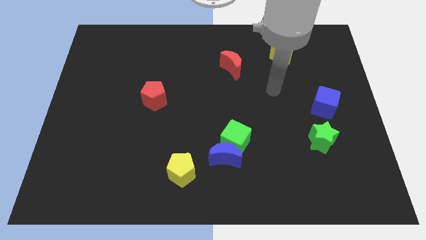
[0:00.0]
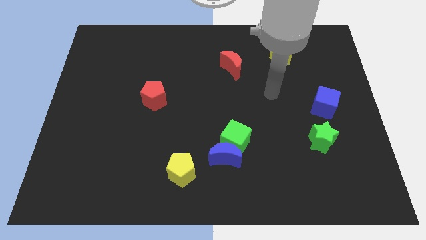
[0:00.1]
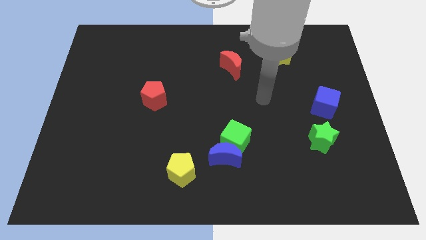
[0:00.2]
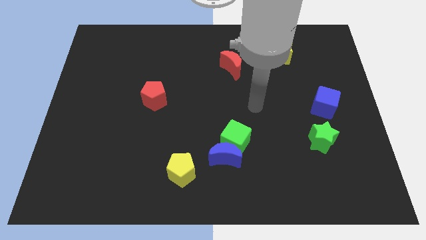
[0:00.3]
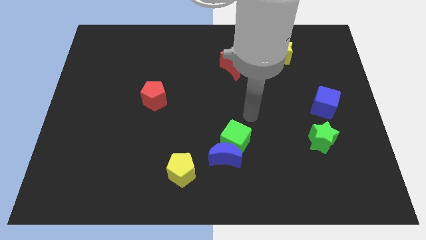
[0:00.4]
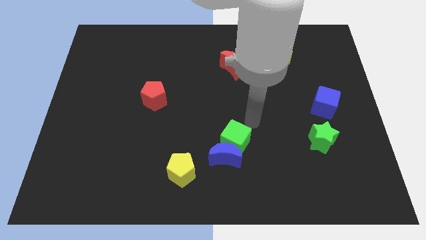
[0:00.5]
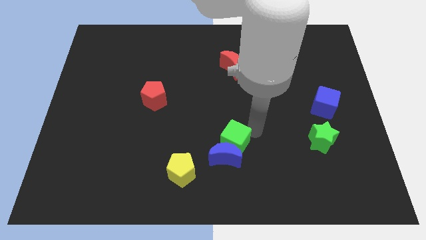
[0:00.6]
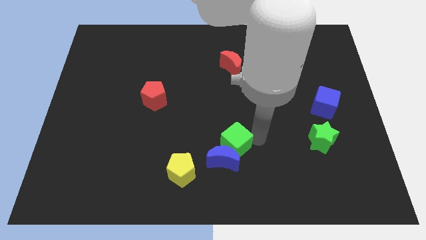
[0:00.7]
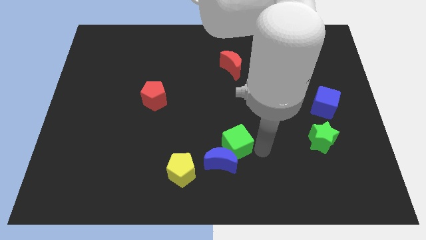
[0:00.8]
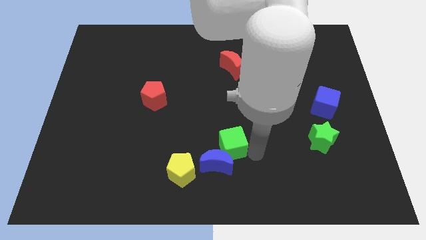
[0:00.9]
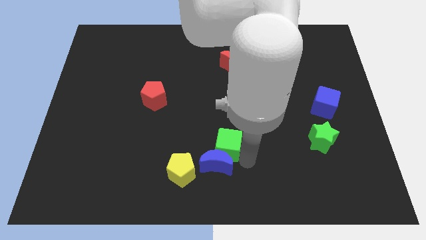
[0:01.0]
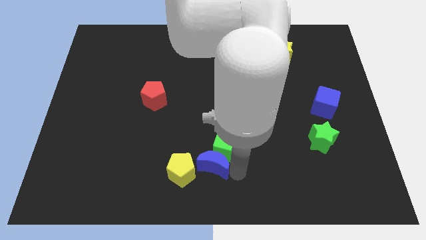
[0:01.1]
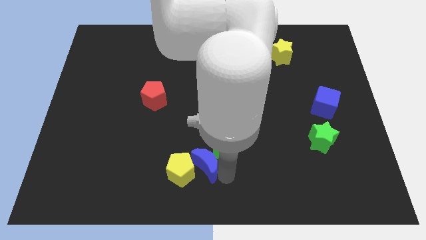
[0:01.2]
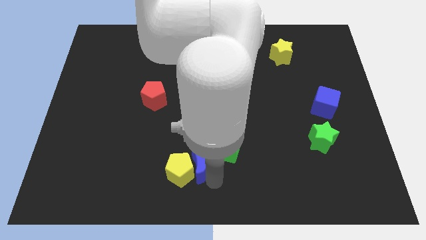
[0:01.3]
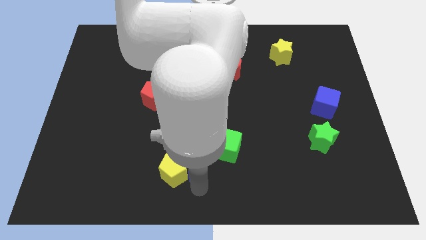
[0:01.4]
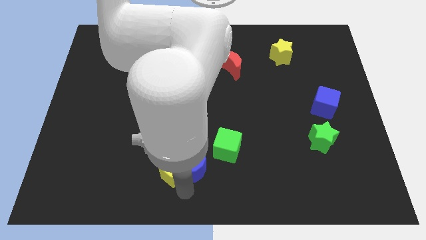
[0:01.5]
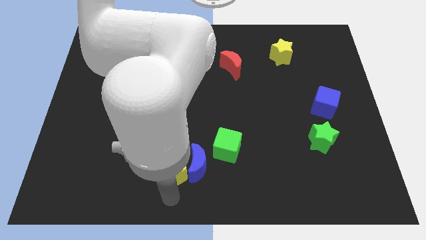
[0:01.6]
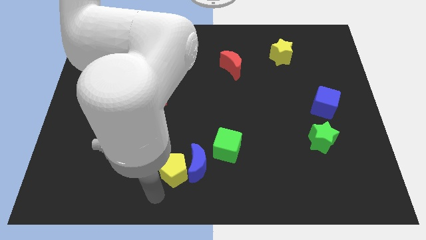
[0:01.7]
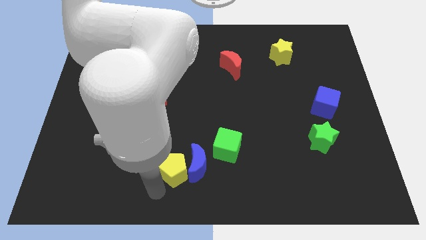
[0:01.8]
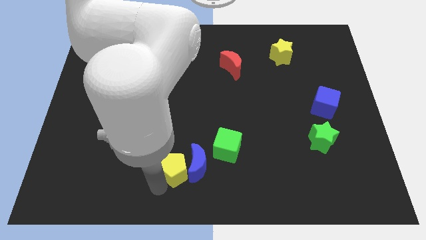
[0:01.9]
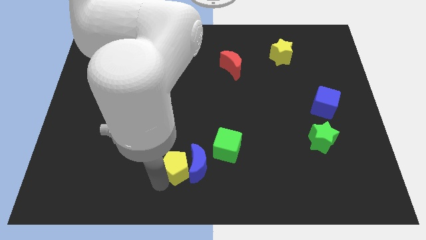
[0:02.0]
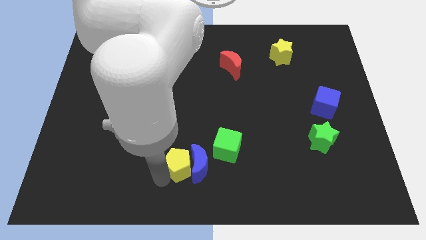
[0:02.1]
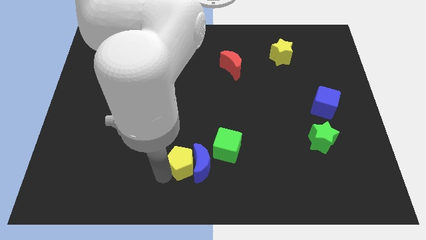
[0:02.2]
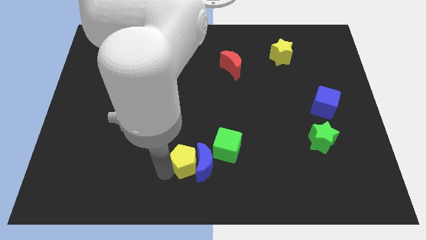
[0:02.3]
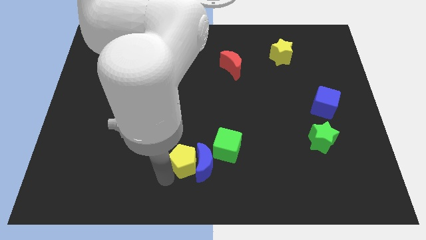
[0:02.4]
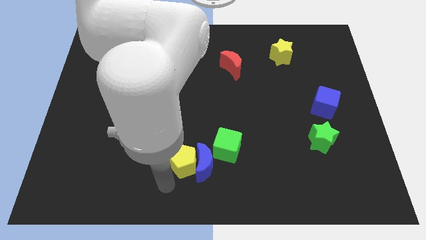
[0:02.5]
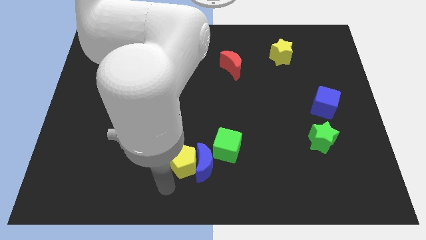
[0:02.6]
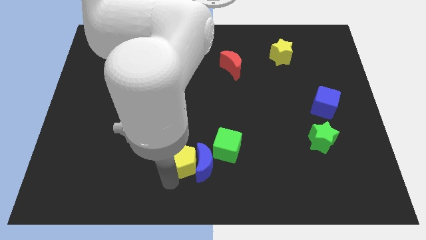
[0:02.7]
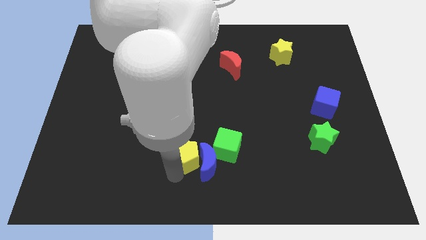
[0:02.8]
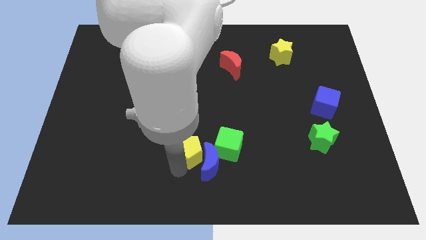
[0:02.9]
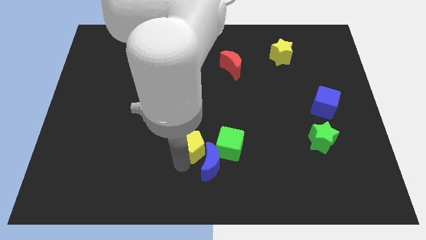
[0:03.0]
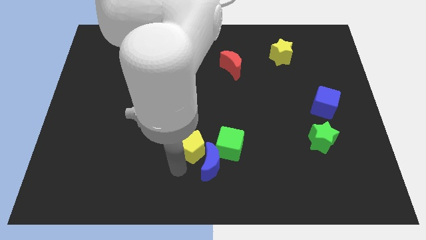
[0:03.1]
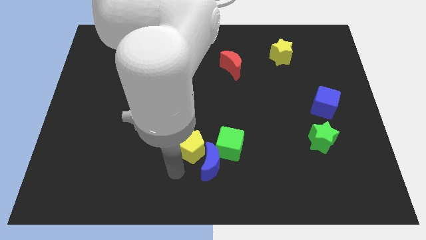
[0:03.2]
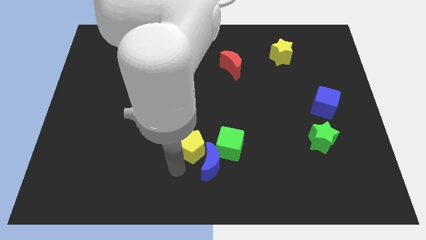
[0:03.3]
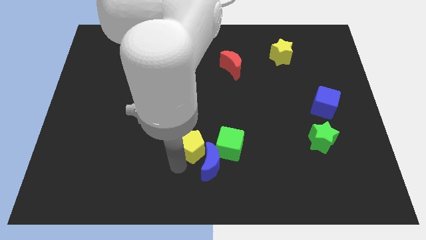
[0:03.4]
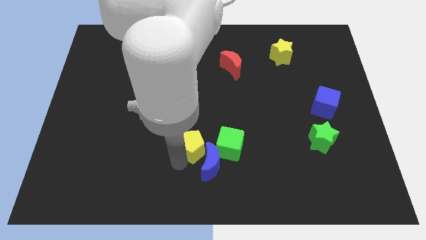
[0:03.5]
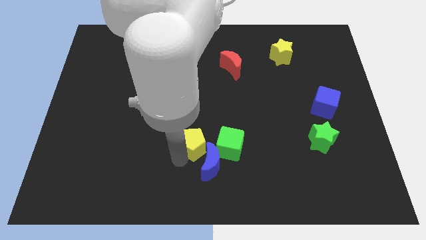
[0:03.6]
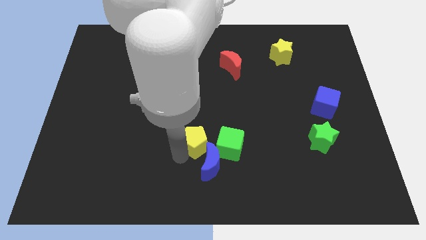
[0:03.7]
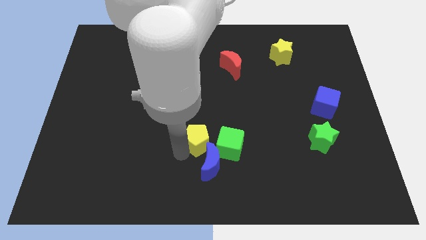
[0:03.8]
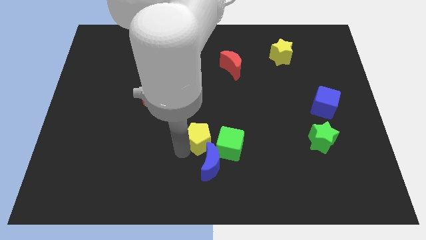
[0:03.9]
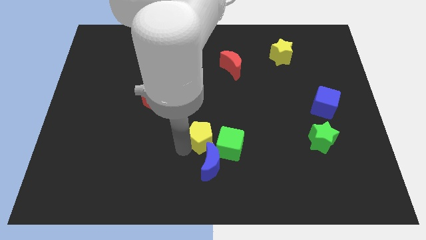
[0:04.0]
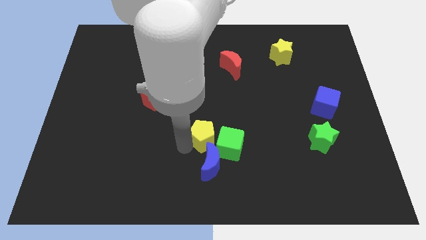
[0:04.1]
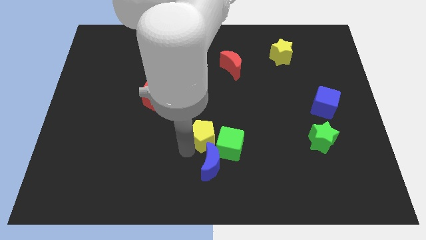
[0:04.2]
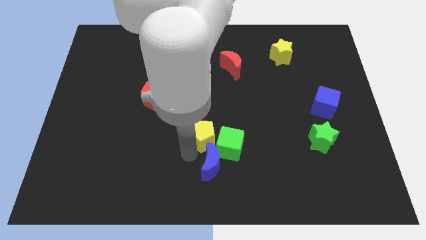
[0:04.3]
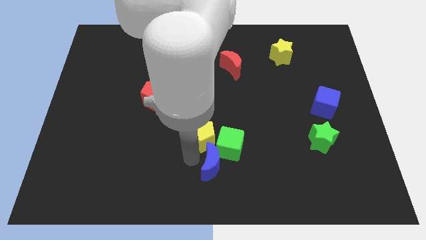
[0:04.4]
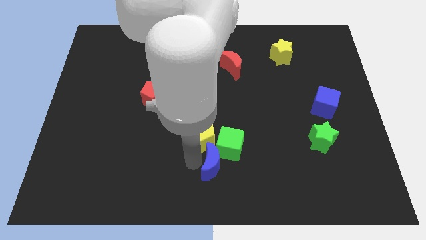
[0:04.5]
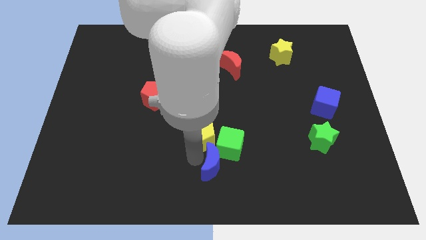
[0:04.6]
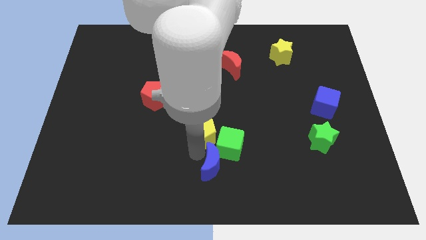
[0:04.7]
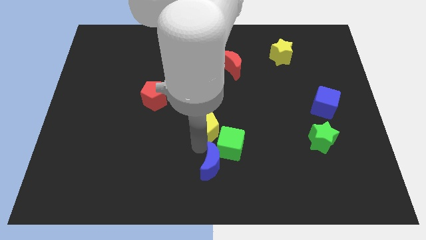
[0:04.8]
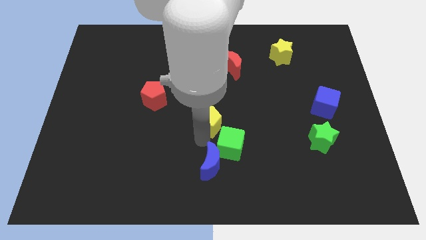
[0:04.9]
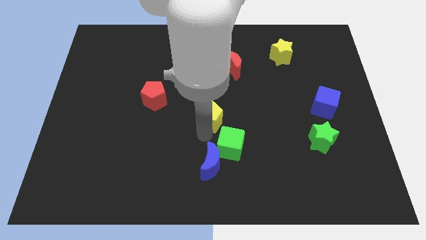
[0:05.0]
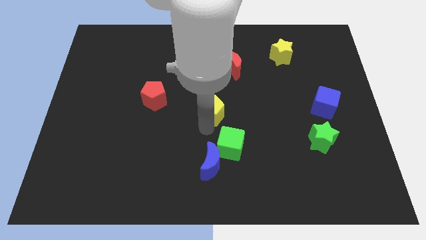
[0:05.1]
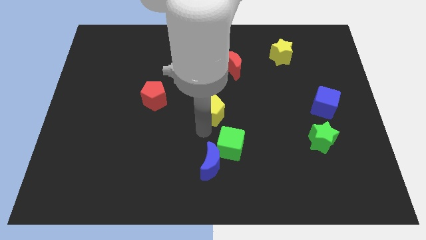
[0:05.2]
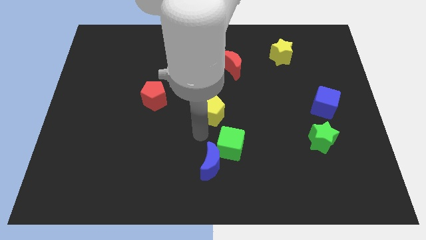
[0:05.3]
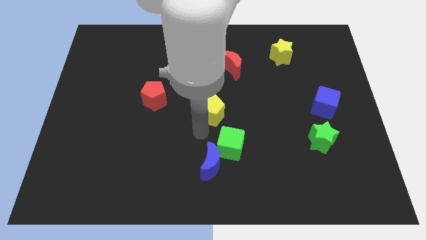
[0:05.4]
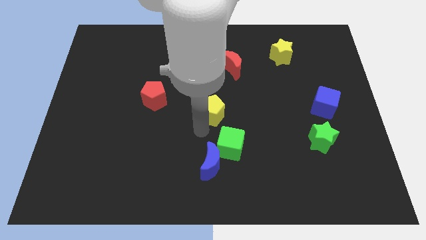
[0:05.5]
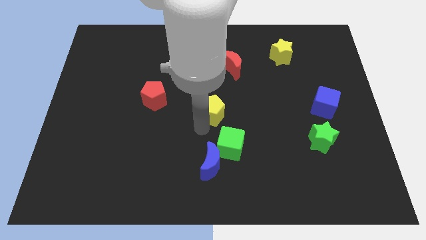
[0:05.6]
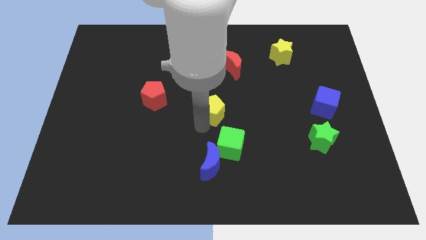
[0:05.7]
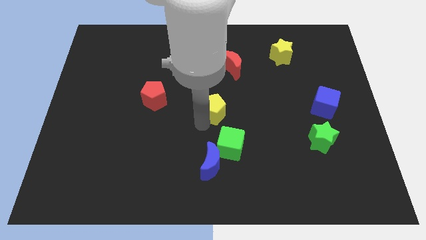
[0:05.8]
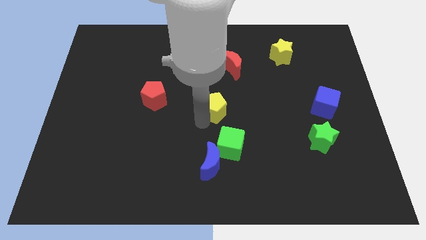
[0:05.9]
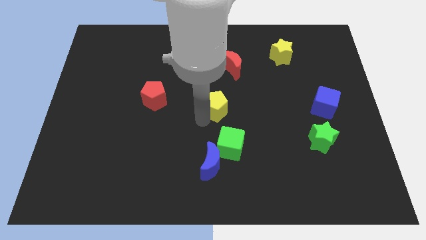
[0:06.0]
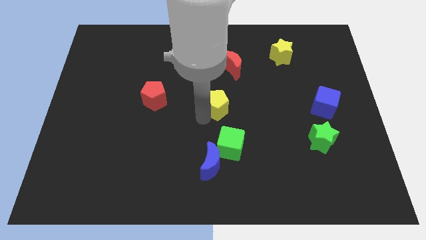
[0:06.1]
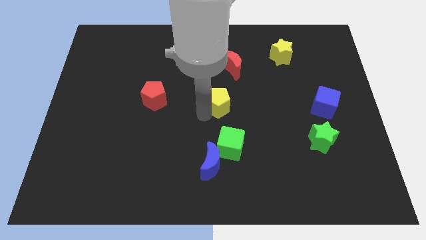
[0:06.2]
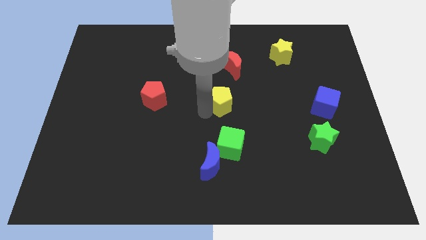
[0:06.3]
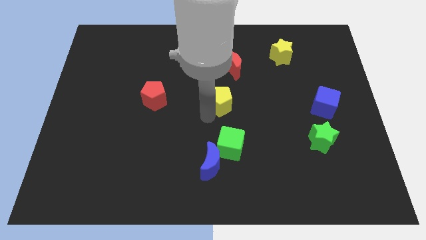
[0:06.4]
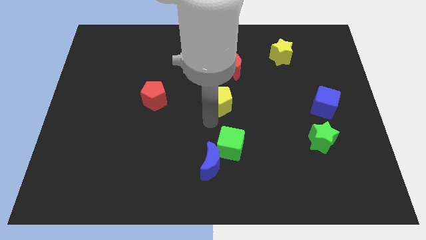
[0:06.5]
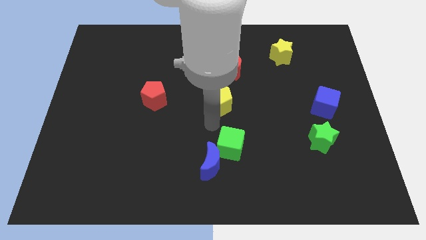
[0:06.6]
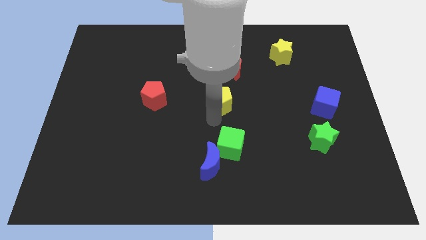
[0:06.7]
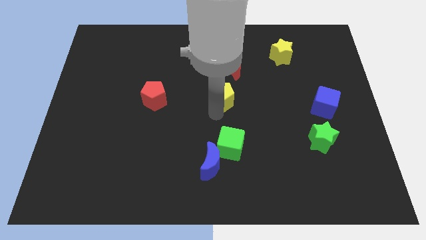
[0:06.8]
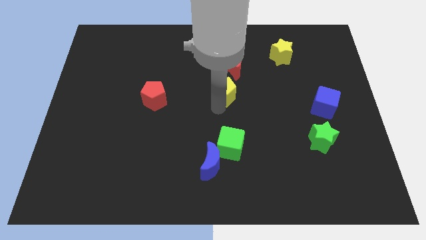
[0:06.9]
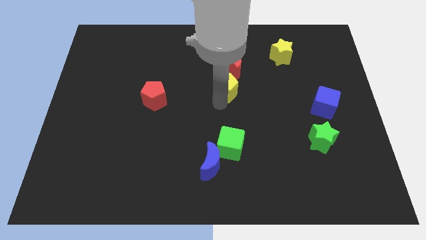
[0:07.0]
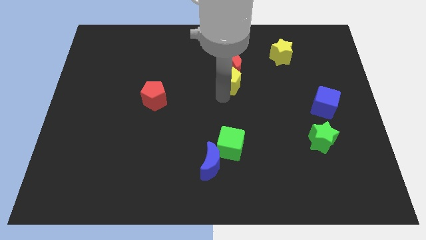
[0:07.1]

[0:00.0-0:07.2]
put the yellow pentagon close to the red moon
